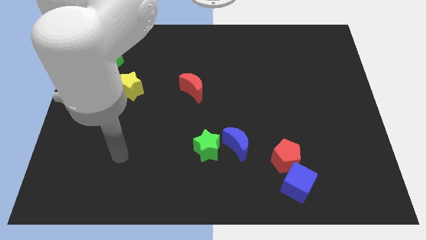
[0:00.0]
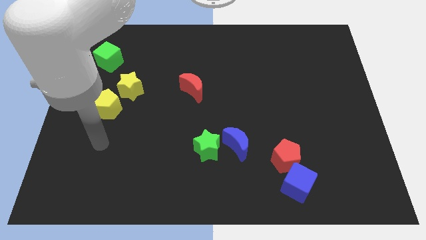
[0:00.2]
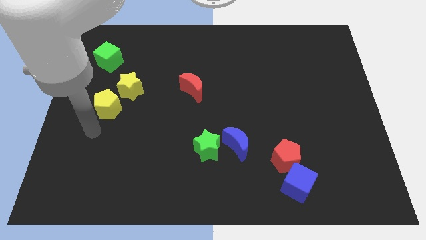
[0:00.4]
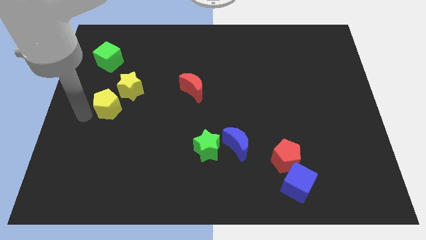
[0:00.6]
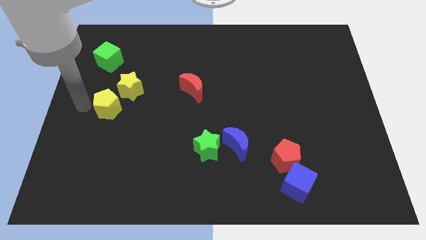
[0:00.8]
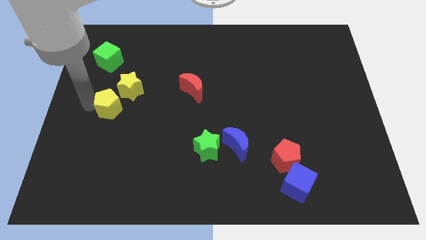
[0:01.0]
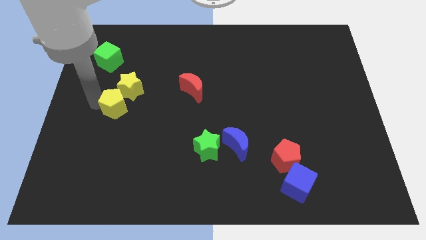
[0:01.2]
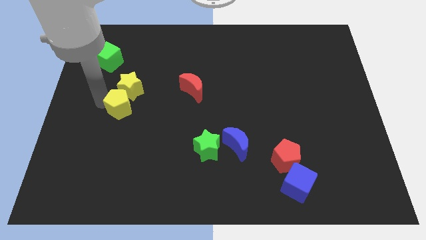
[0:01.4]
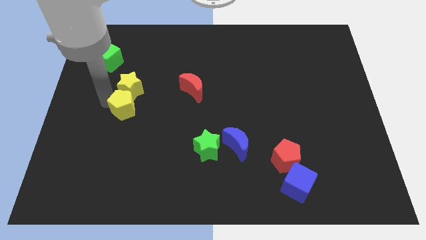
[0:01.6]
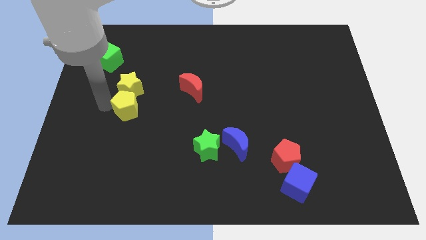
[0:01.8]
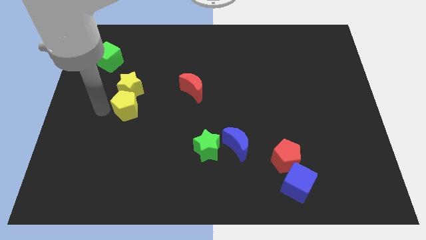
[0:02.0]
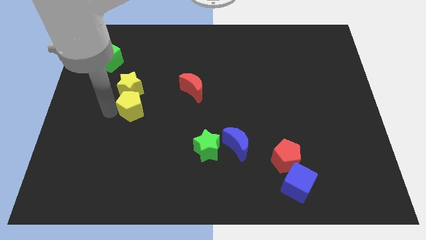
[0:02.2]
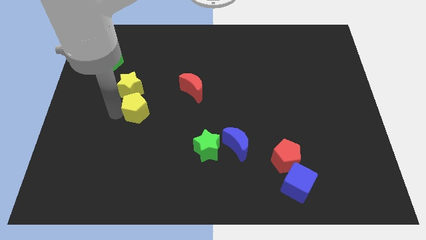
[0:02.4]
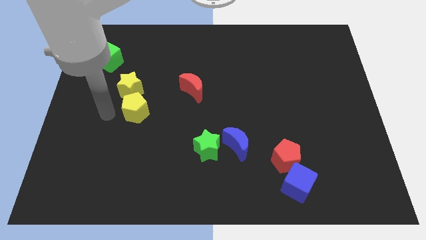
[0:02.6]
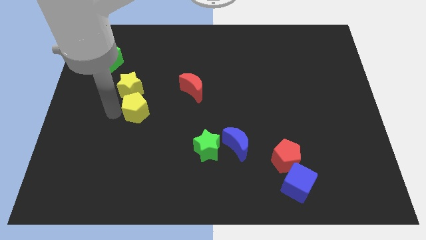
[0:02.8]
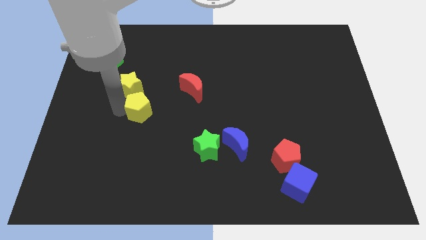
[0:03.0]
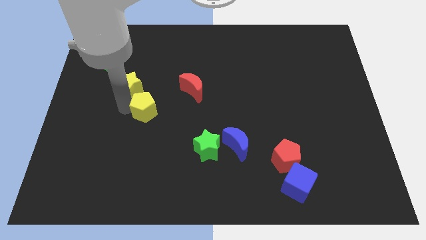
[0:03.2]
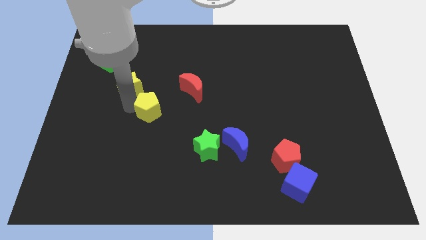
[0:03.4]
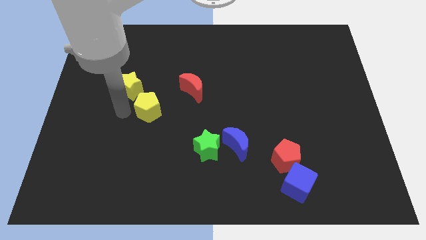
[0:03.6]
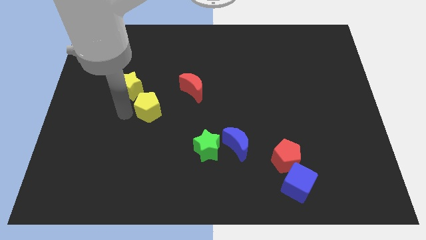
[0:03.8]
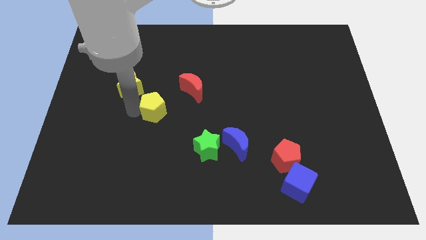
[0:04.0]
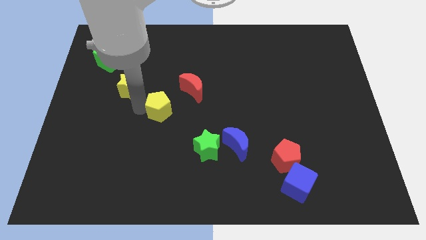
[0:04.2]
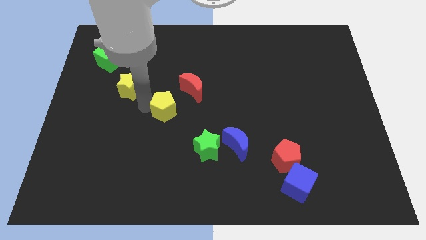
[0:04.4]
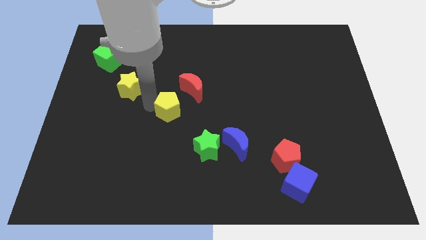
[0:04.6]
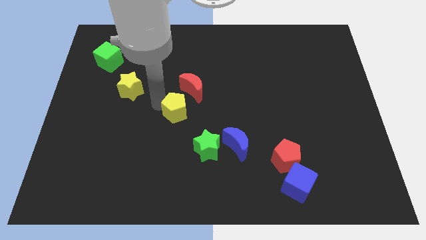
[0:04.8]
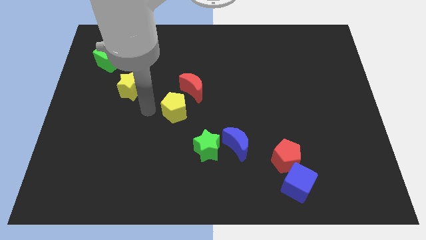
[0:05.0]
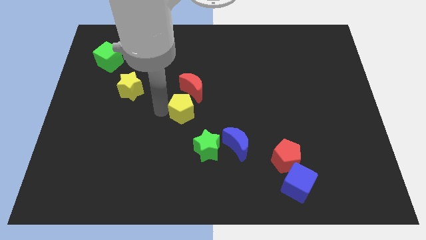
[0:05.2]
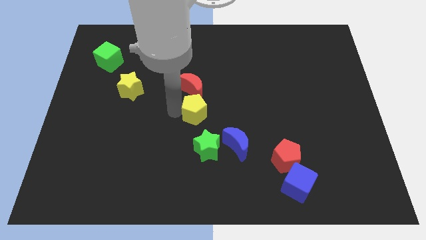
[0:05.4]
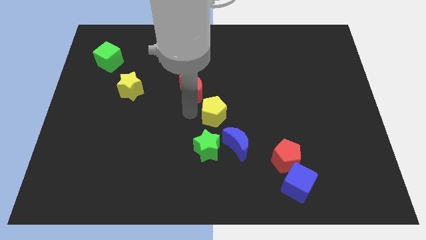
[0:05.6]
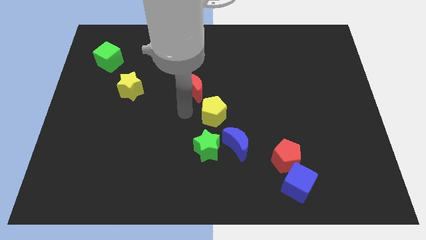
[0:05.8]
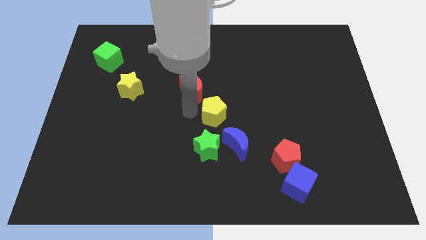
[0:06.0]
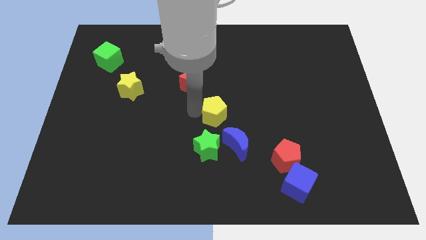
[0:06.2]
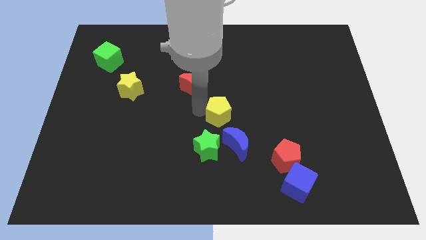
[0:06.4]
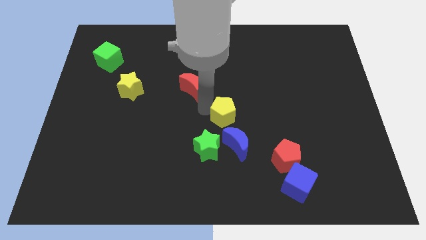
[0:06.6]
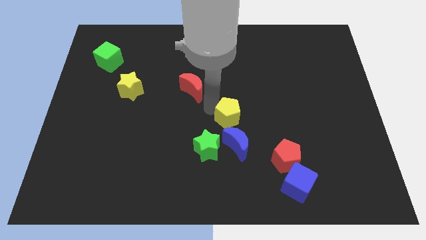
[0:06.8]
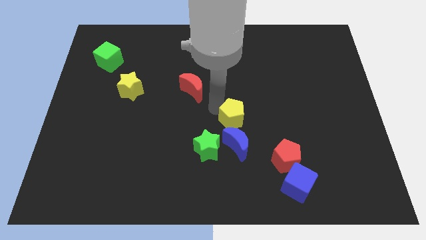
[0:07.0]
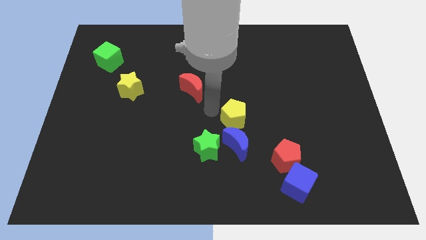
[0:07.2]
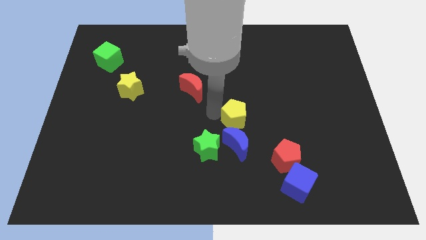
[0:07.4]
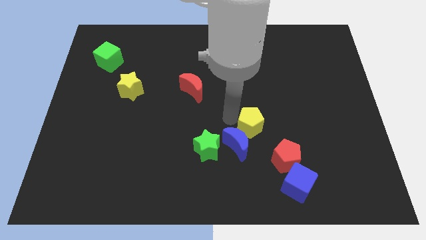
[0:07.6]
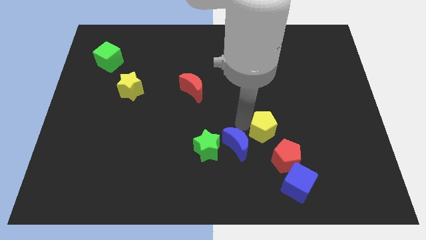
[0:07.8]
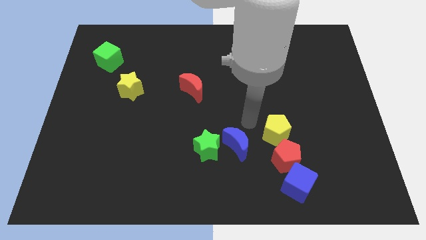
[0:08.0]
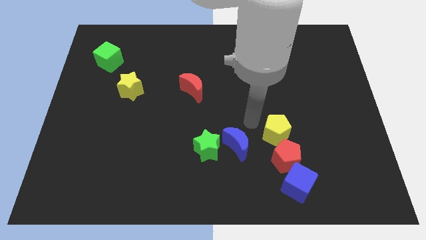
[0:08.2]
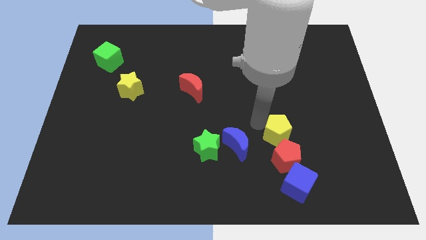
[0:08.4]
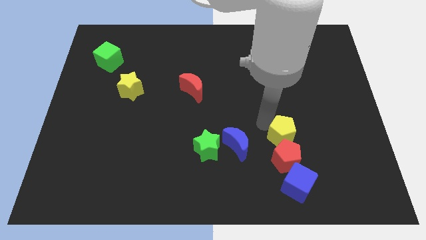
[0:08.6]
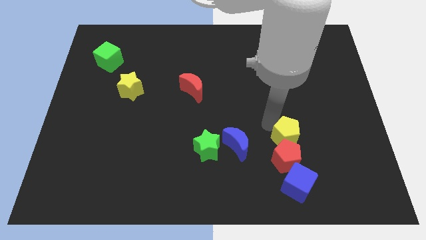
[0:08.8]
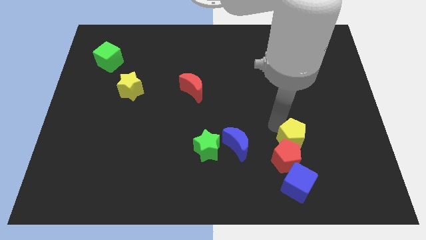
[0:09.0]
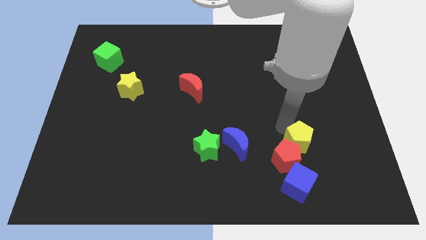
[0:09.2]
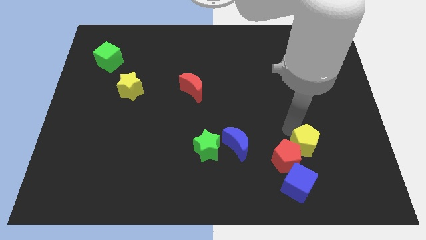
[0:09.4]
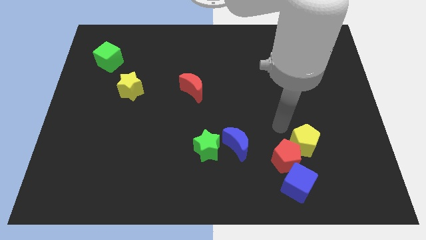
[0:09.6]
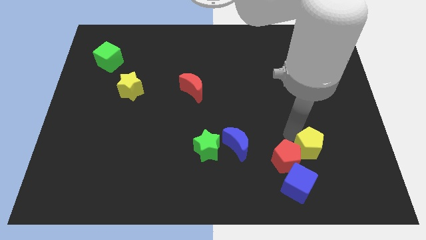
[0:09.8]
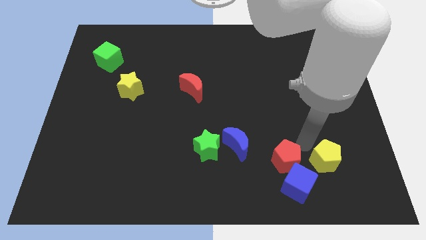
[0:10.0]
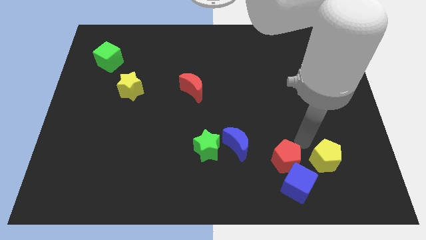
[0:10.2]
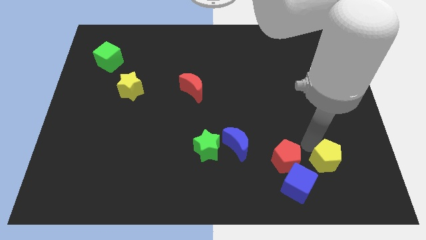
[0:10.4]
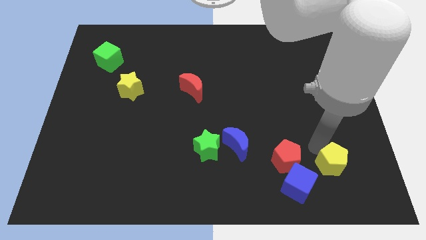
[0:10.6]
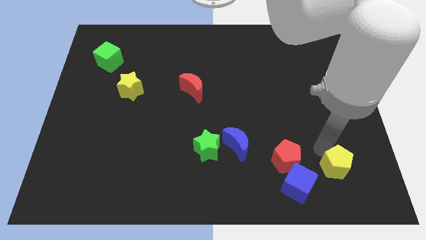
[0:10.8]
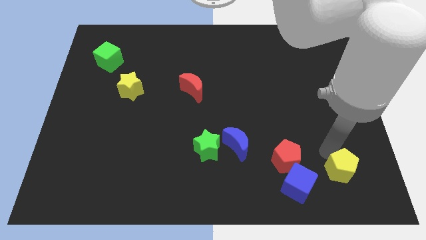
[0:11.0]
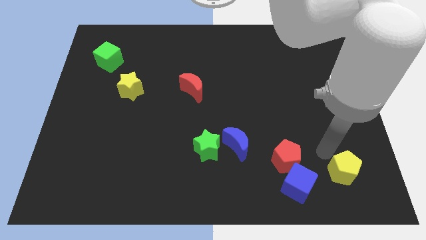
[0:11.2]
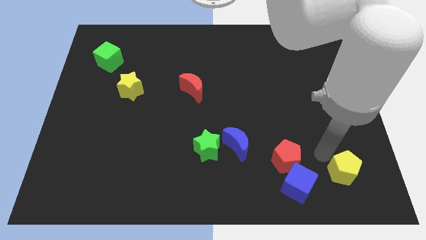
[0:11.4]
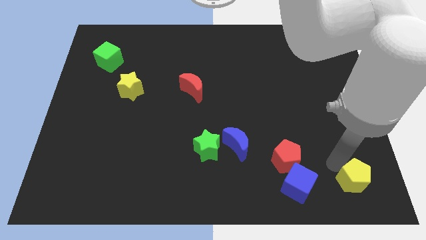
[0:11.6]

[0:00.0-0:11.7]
push the yellow pentagon to the lower right corner

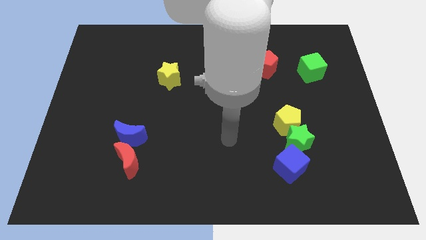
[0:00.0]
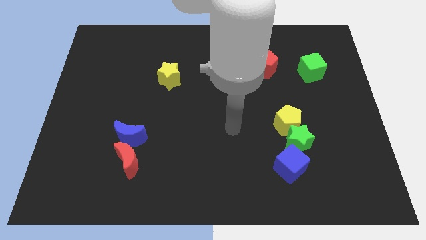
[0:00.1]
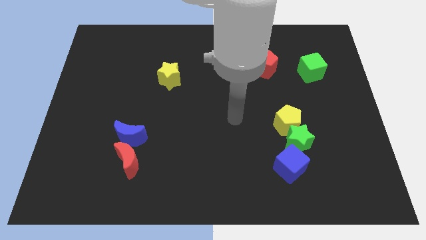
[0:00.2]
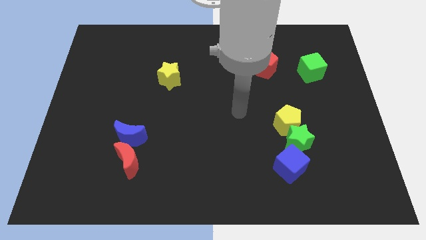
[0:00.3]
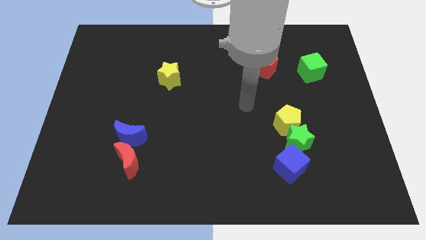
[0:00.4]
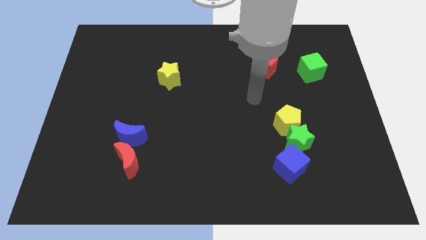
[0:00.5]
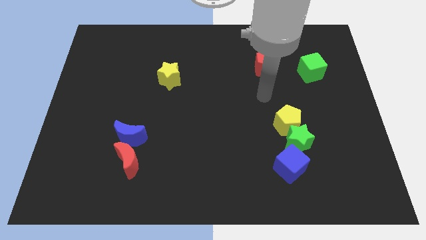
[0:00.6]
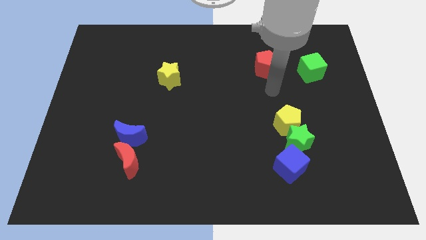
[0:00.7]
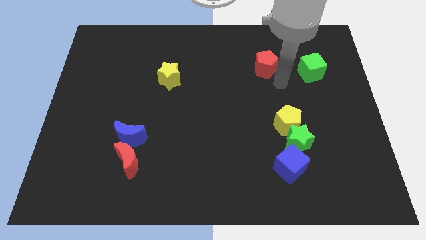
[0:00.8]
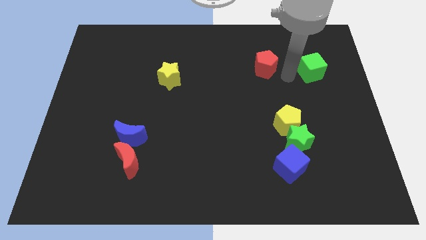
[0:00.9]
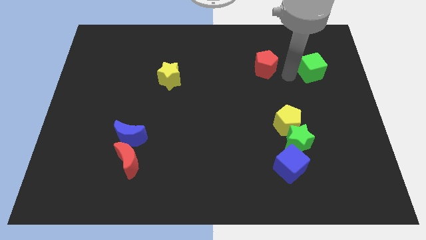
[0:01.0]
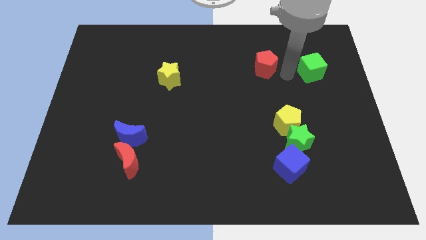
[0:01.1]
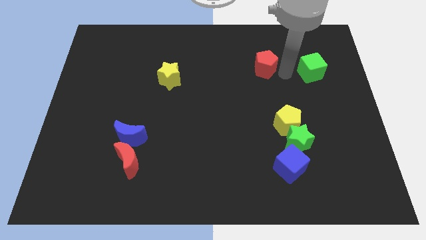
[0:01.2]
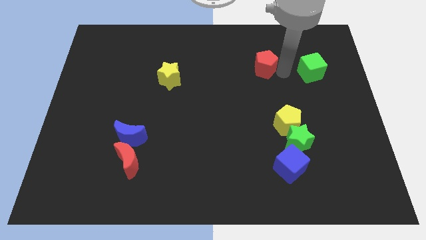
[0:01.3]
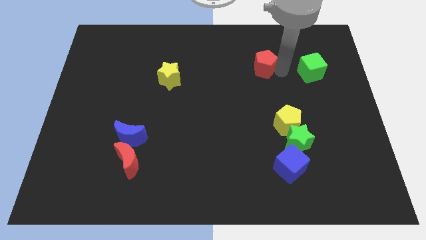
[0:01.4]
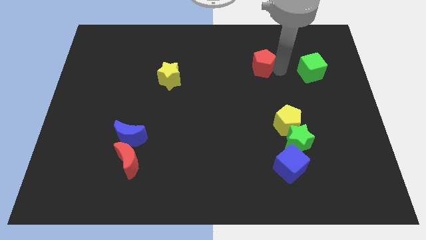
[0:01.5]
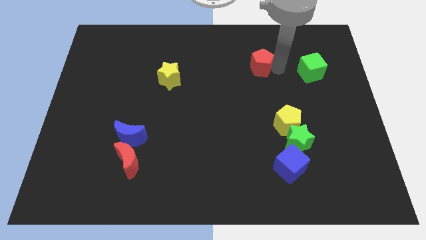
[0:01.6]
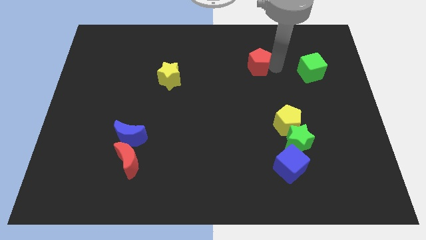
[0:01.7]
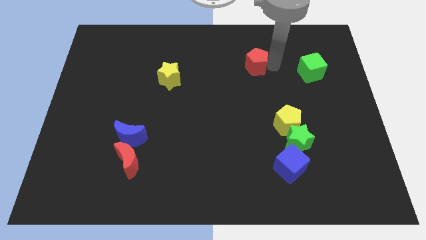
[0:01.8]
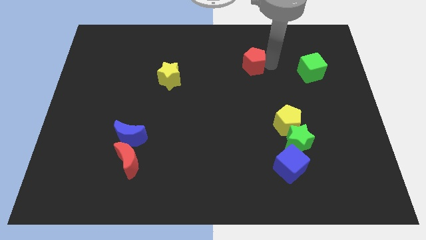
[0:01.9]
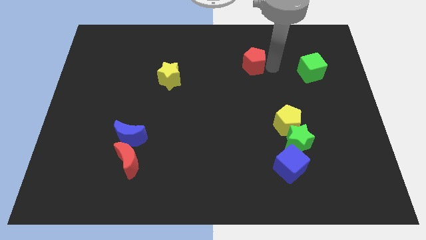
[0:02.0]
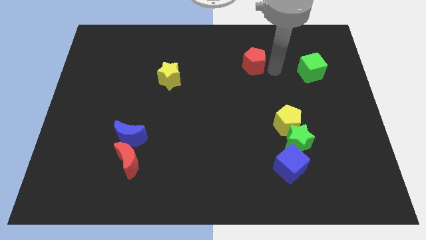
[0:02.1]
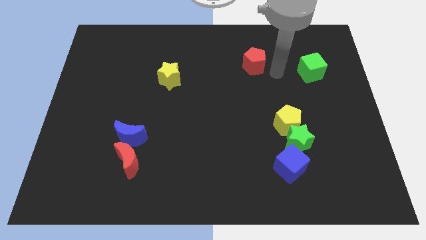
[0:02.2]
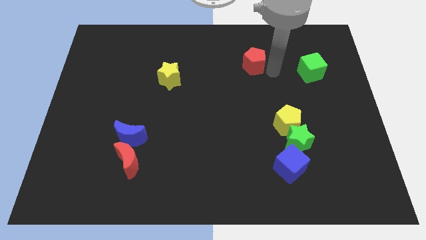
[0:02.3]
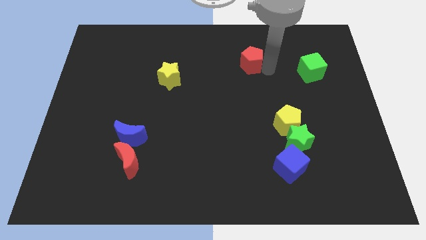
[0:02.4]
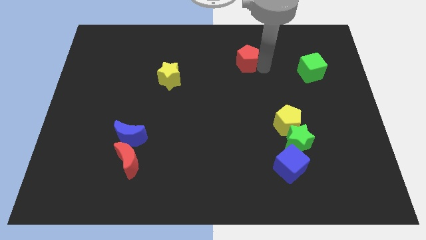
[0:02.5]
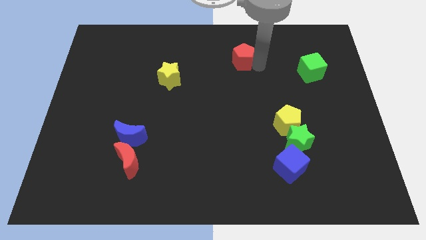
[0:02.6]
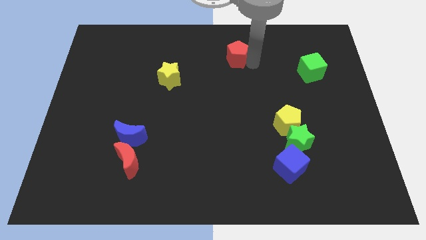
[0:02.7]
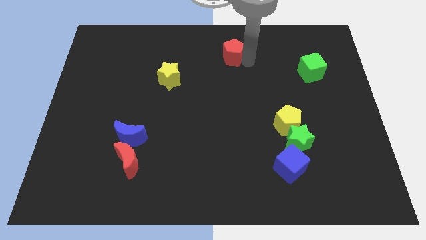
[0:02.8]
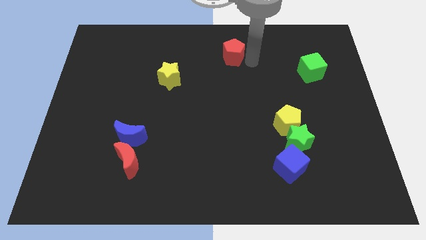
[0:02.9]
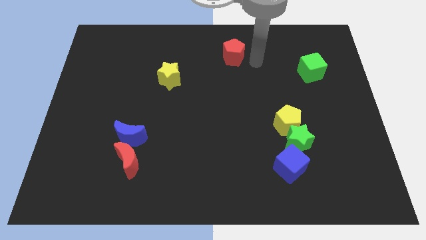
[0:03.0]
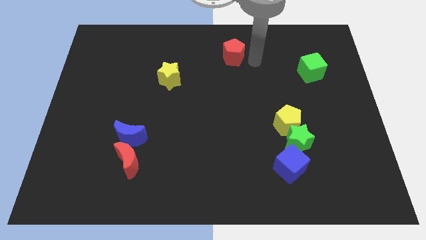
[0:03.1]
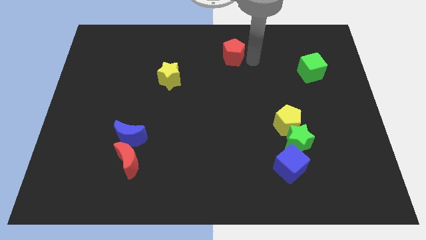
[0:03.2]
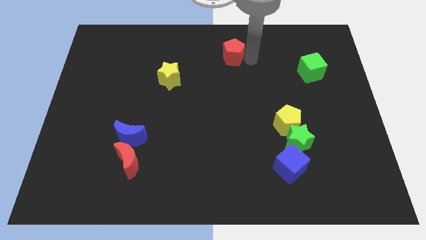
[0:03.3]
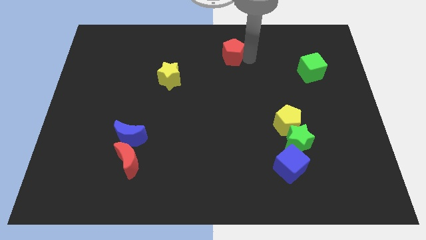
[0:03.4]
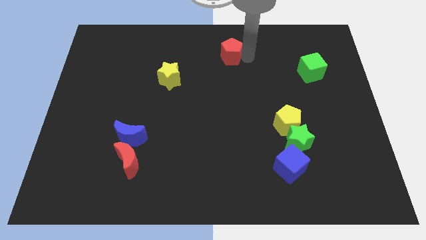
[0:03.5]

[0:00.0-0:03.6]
push the red pentagon to the top side
